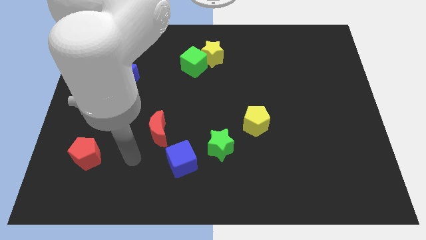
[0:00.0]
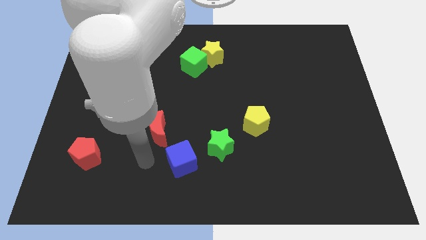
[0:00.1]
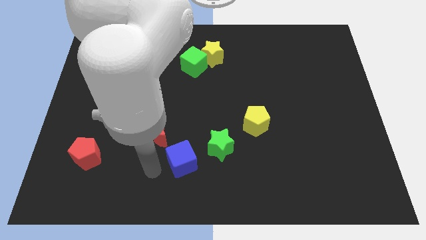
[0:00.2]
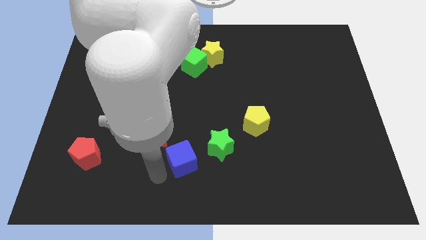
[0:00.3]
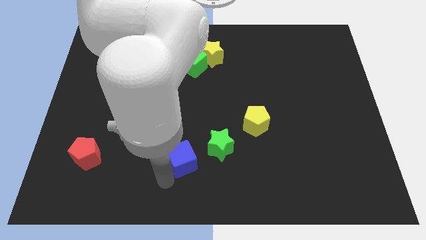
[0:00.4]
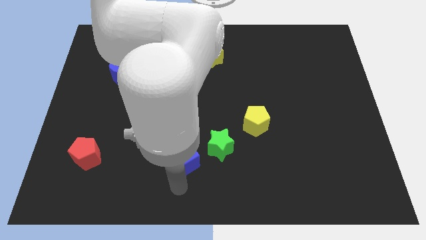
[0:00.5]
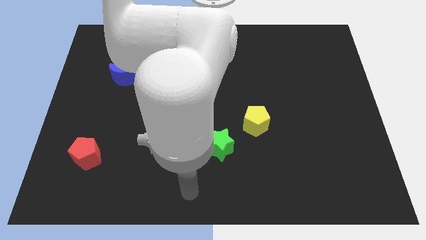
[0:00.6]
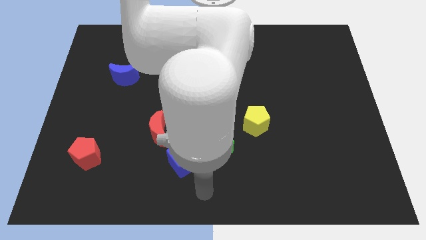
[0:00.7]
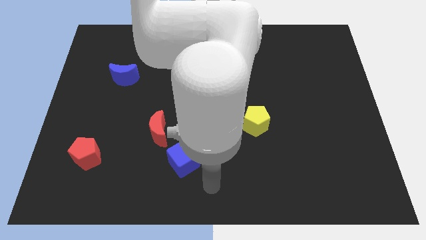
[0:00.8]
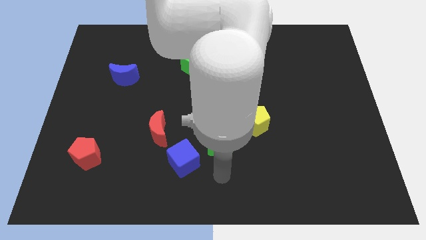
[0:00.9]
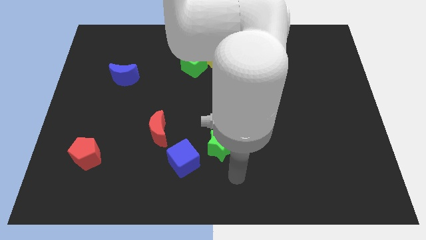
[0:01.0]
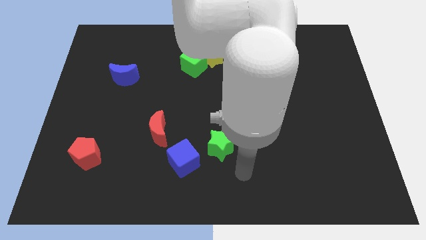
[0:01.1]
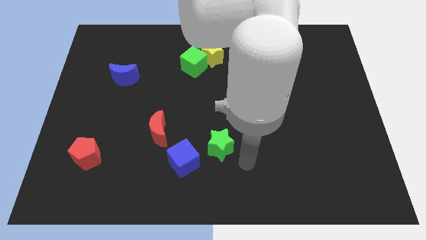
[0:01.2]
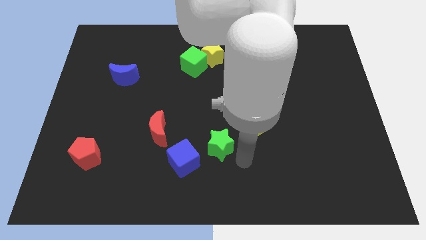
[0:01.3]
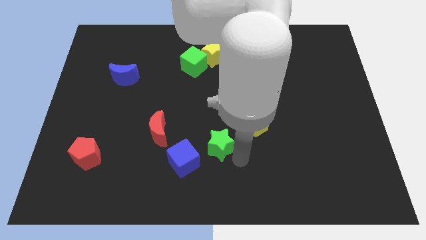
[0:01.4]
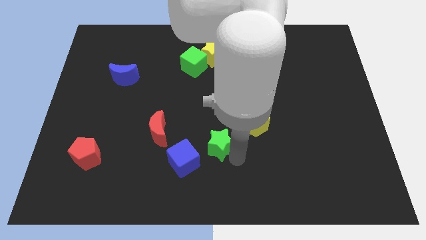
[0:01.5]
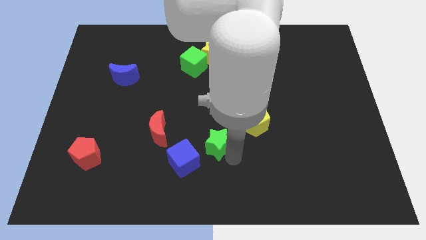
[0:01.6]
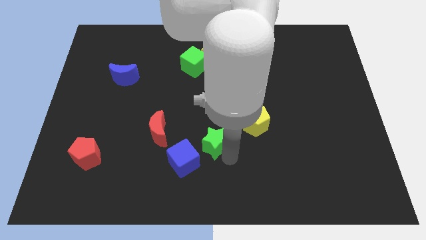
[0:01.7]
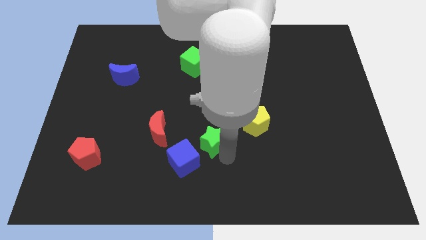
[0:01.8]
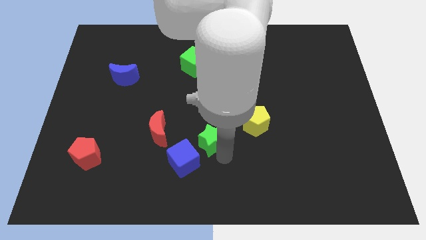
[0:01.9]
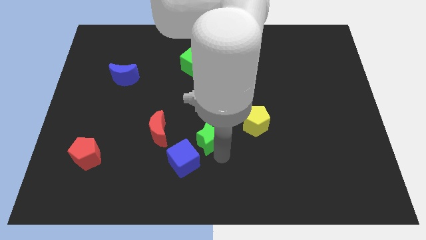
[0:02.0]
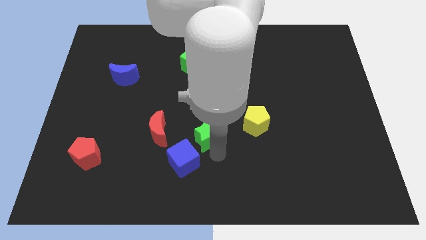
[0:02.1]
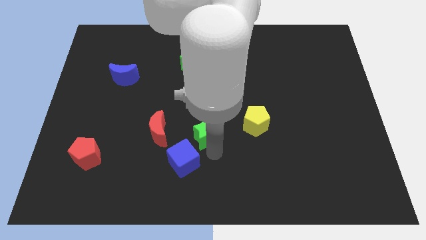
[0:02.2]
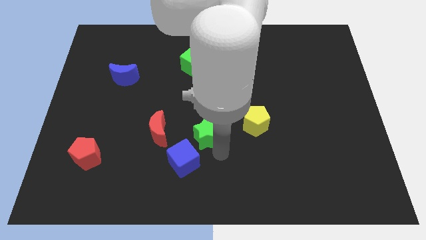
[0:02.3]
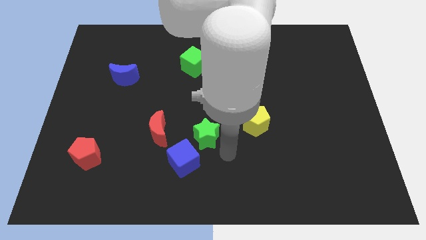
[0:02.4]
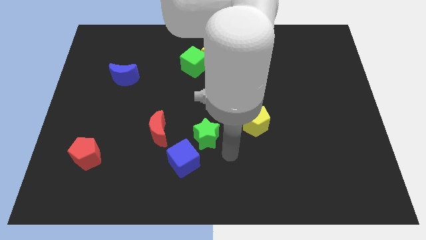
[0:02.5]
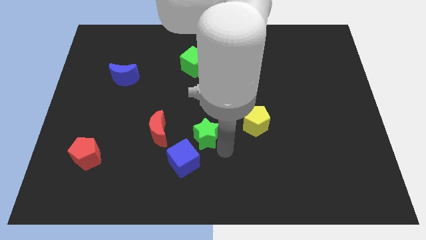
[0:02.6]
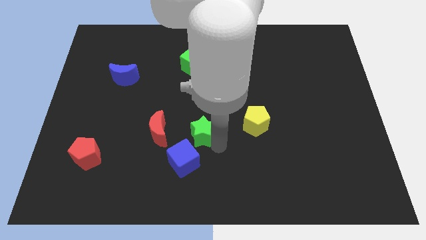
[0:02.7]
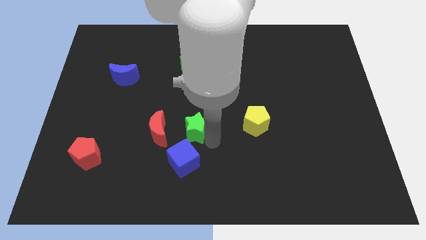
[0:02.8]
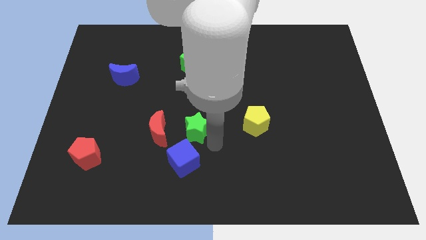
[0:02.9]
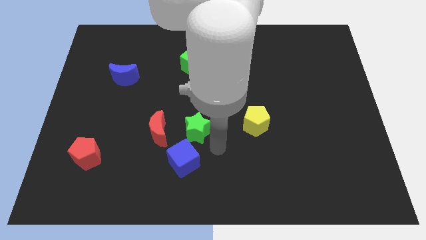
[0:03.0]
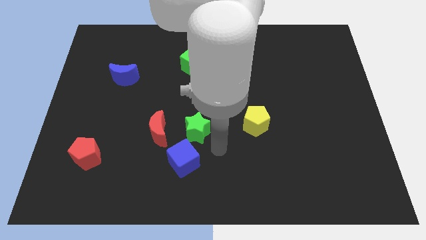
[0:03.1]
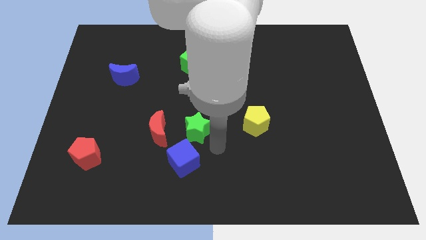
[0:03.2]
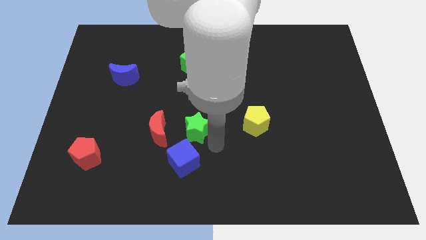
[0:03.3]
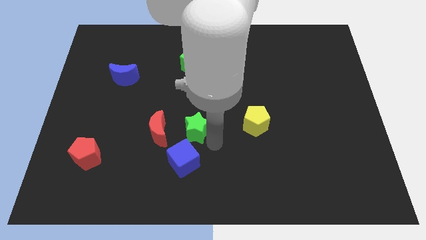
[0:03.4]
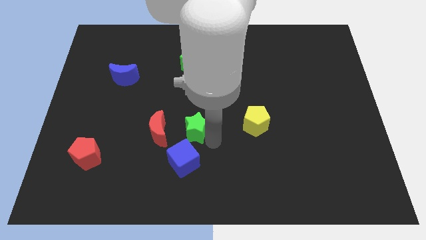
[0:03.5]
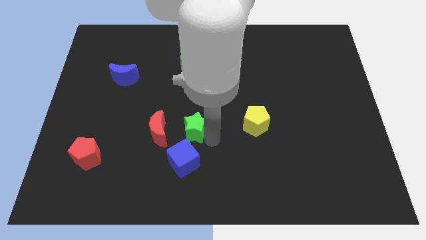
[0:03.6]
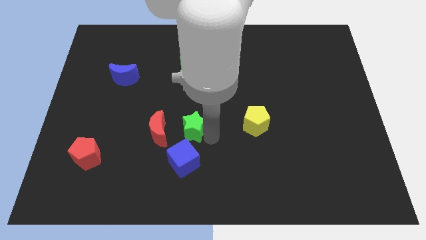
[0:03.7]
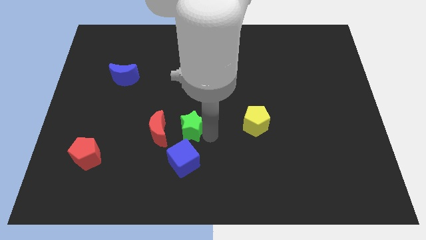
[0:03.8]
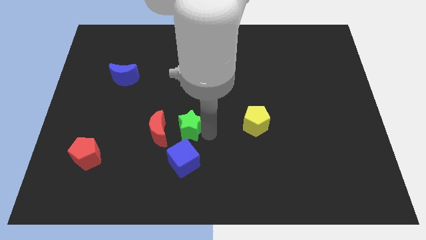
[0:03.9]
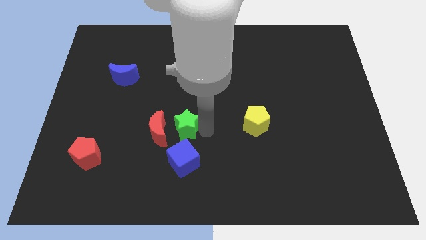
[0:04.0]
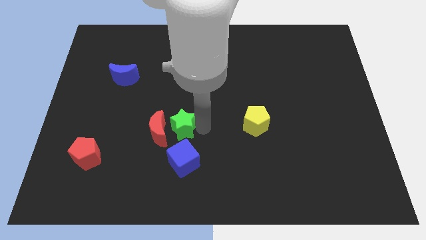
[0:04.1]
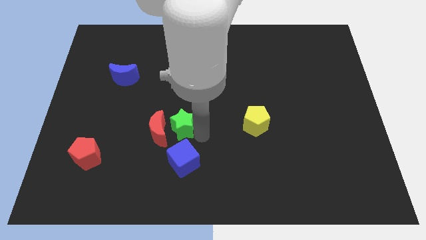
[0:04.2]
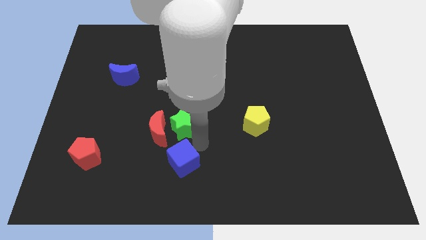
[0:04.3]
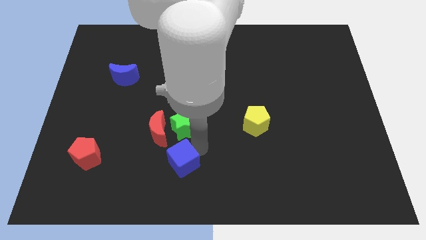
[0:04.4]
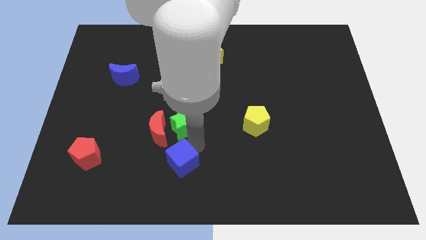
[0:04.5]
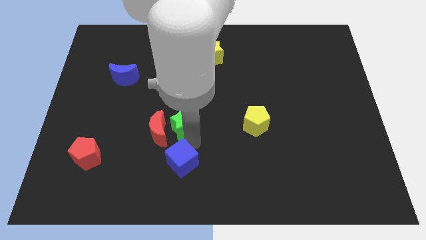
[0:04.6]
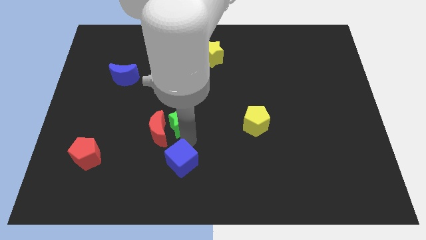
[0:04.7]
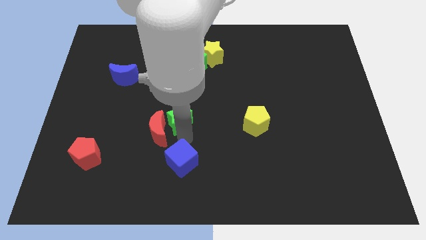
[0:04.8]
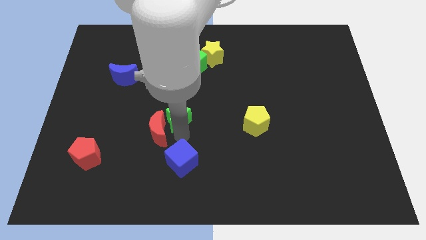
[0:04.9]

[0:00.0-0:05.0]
push the green star to the top side of the red moon

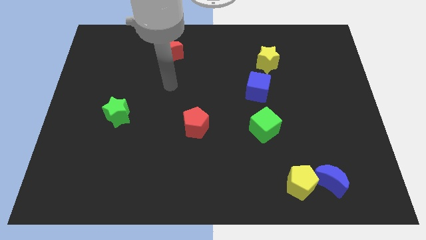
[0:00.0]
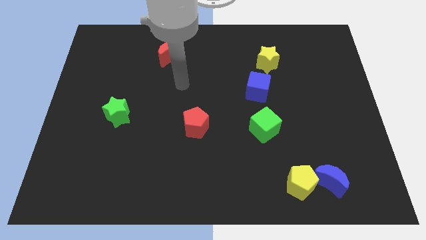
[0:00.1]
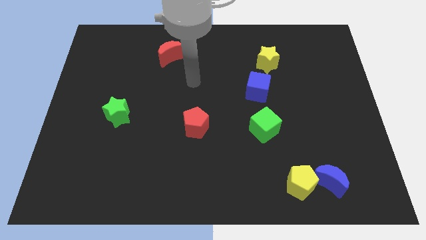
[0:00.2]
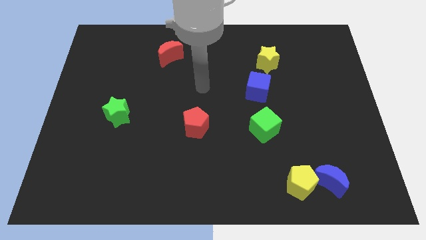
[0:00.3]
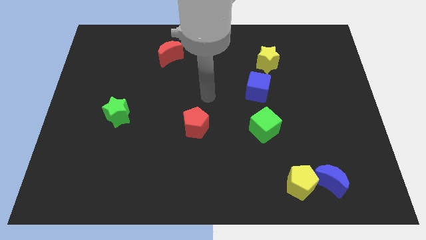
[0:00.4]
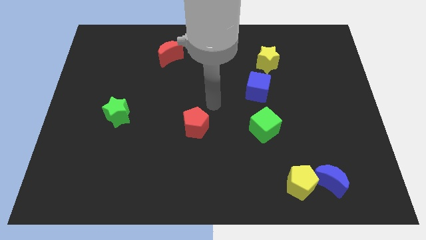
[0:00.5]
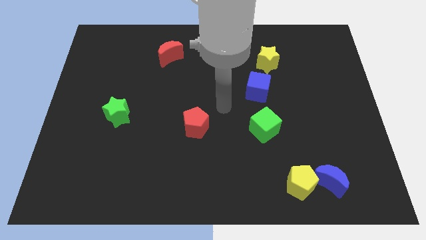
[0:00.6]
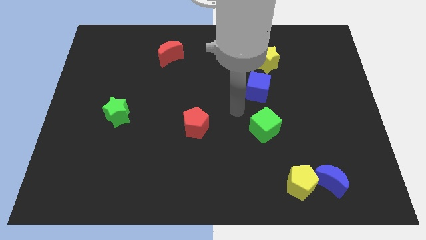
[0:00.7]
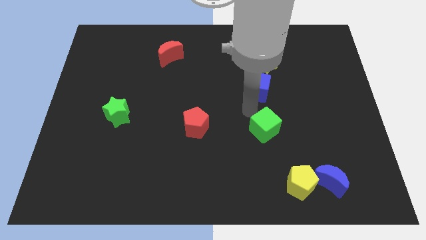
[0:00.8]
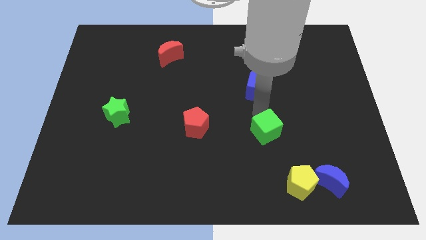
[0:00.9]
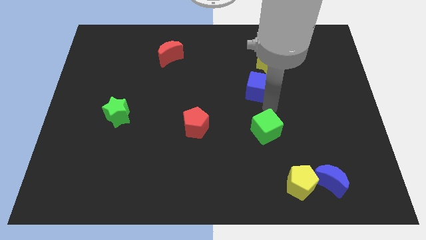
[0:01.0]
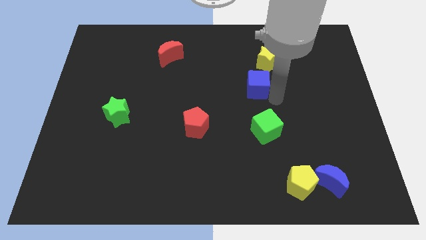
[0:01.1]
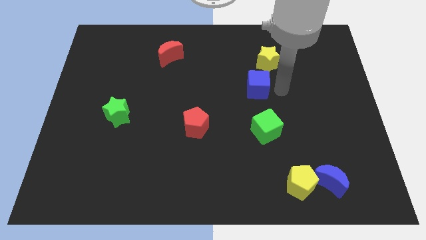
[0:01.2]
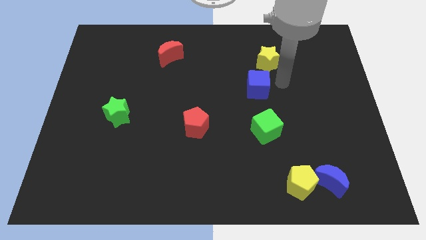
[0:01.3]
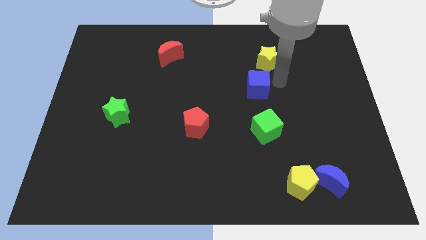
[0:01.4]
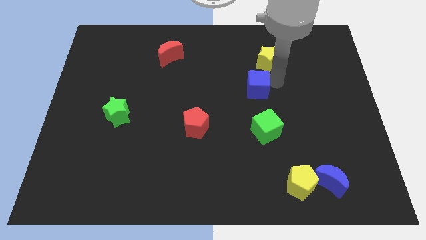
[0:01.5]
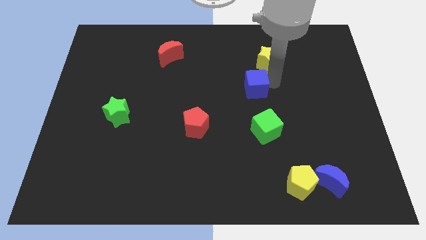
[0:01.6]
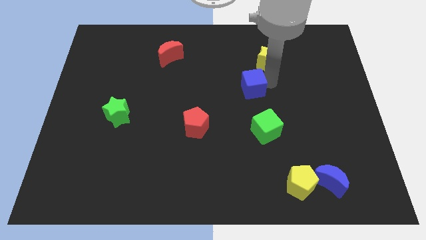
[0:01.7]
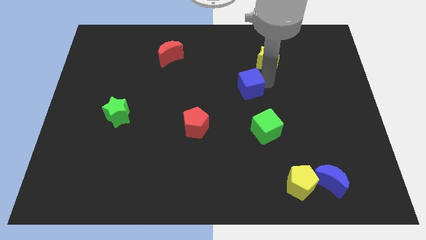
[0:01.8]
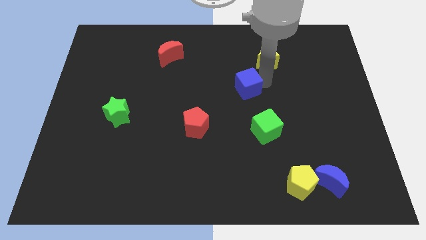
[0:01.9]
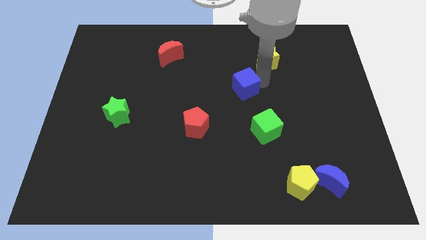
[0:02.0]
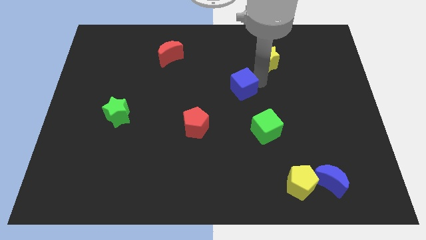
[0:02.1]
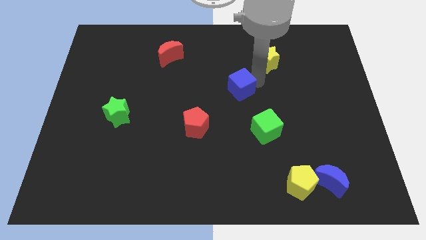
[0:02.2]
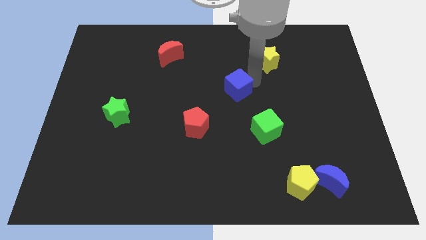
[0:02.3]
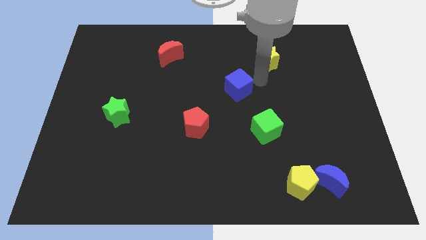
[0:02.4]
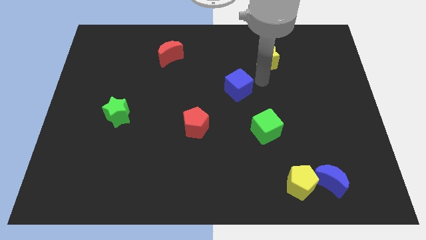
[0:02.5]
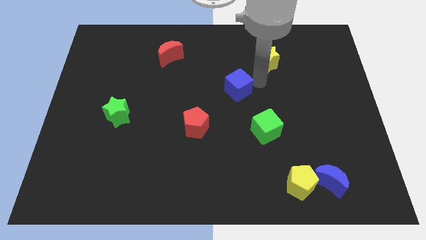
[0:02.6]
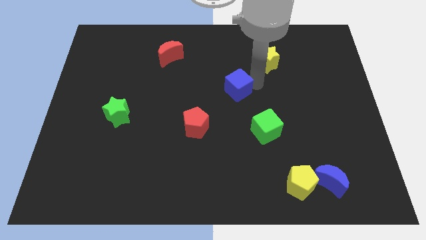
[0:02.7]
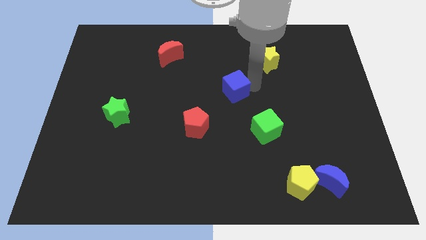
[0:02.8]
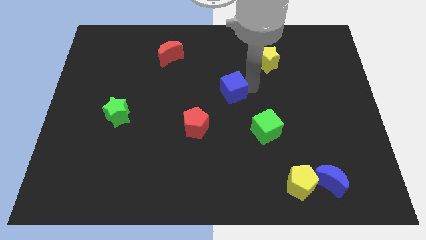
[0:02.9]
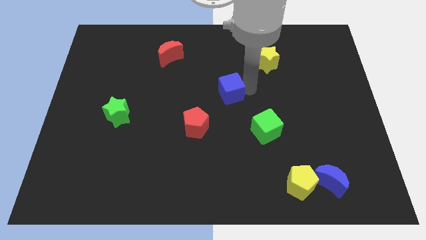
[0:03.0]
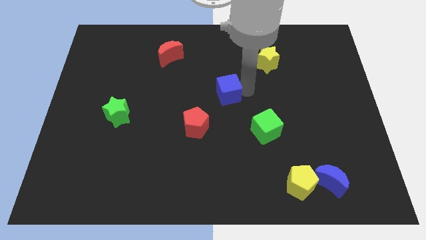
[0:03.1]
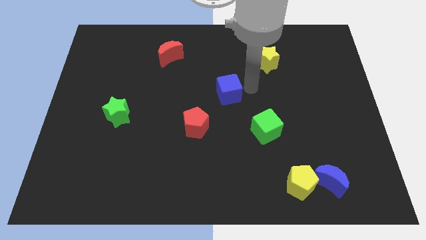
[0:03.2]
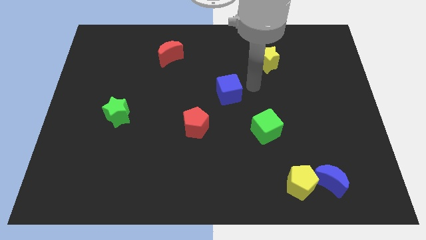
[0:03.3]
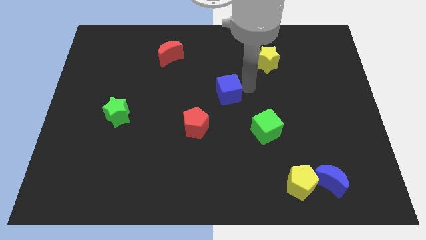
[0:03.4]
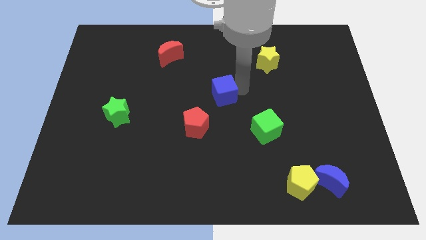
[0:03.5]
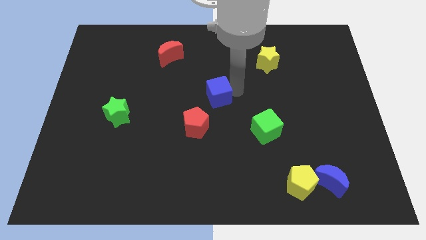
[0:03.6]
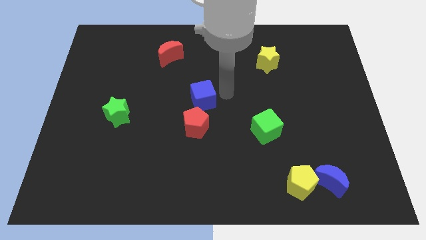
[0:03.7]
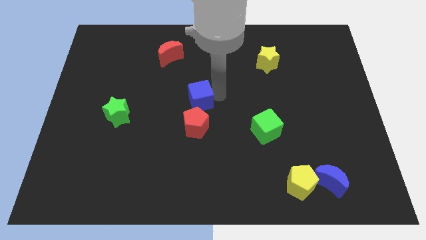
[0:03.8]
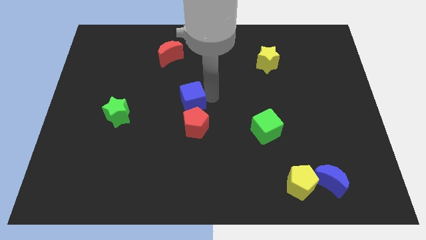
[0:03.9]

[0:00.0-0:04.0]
put the blue cube diagonally up and to the left of the red pentagon
